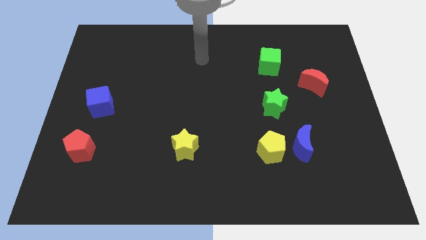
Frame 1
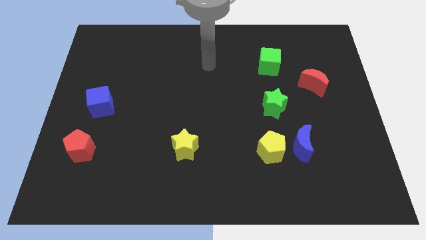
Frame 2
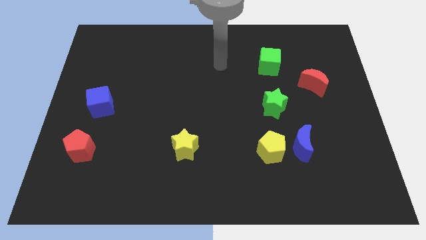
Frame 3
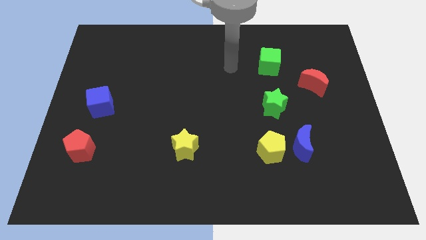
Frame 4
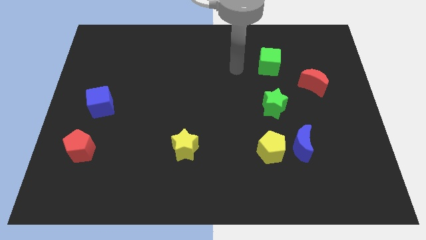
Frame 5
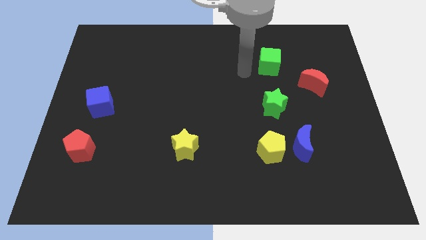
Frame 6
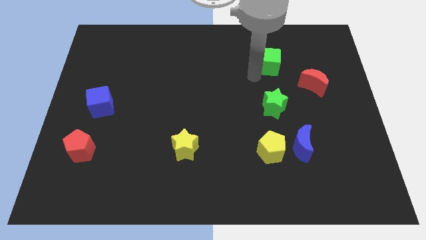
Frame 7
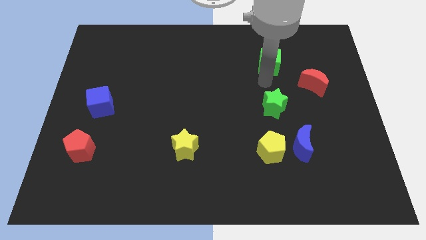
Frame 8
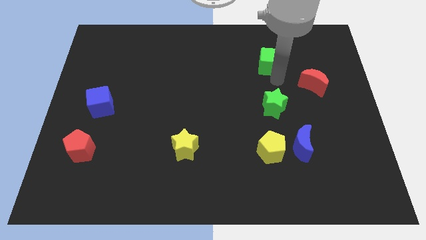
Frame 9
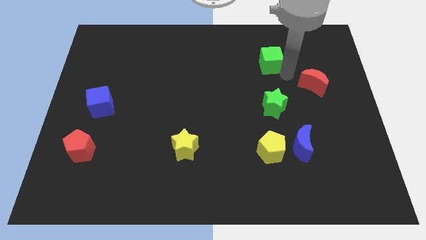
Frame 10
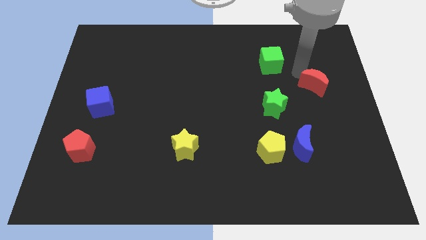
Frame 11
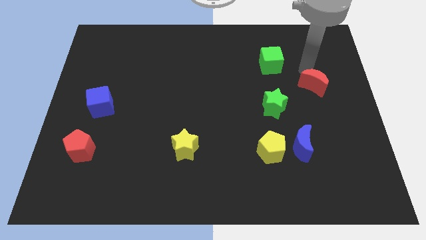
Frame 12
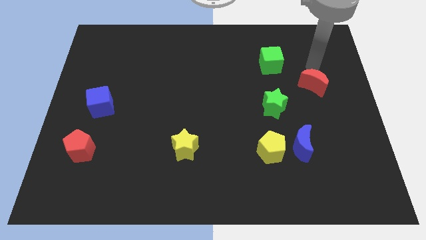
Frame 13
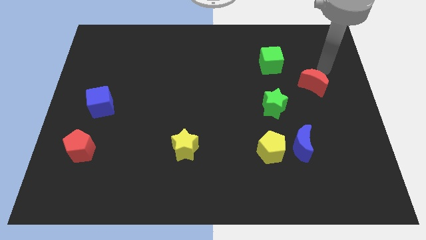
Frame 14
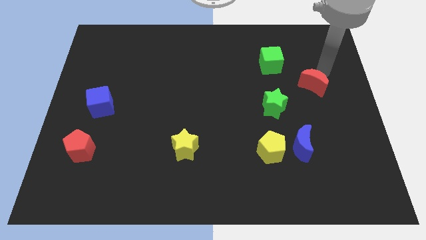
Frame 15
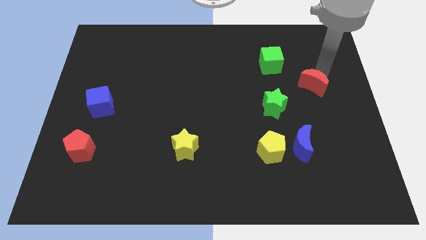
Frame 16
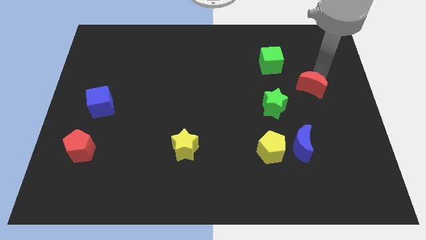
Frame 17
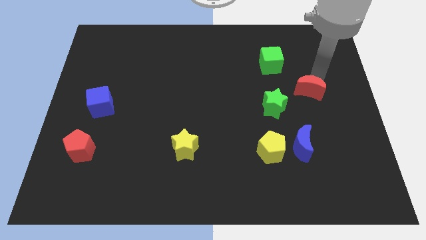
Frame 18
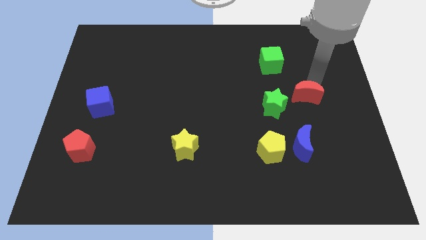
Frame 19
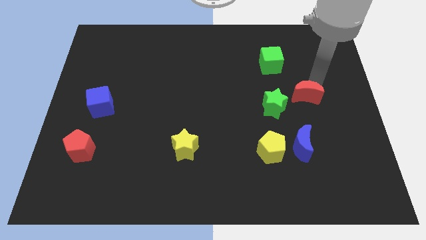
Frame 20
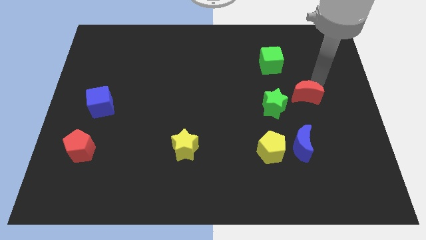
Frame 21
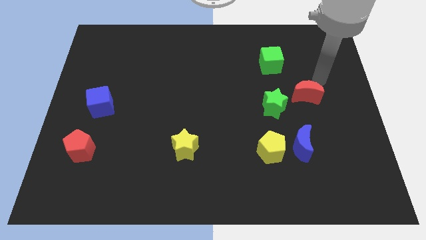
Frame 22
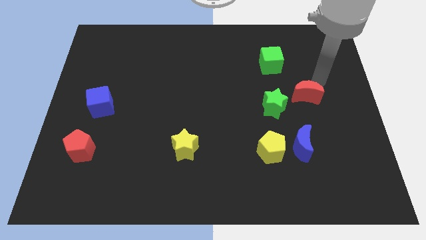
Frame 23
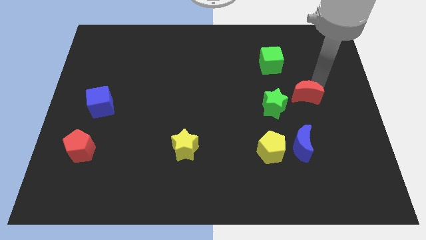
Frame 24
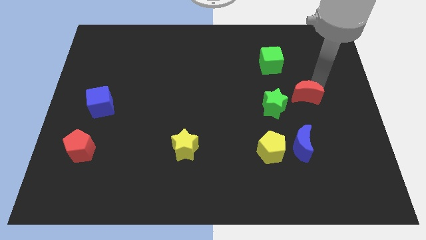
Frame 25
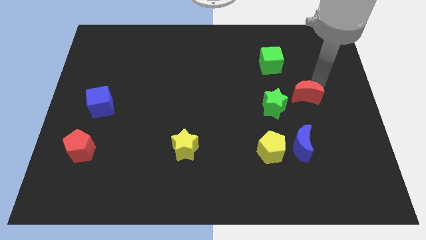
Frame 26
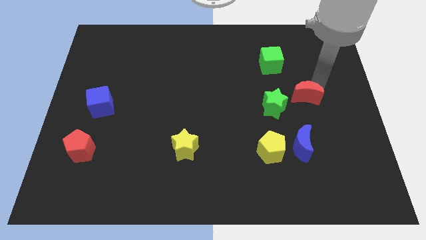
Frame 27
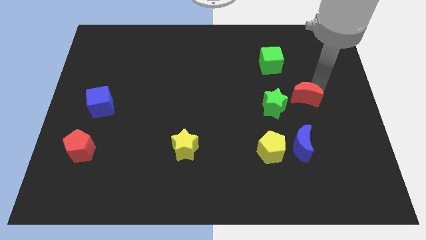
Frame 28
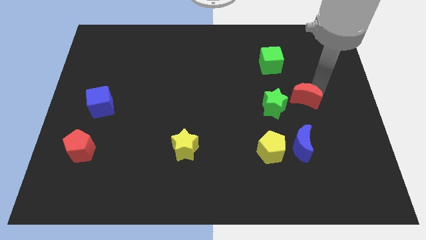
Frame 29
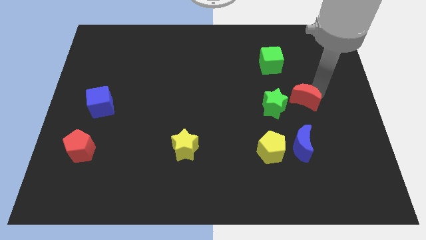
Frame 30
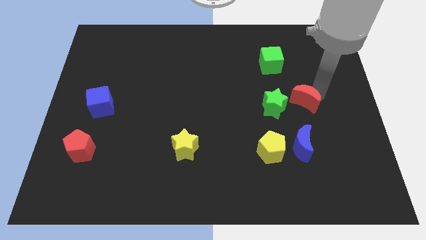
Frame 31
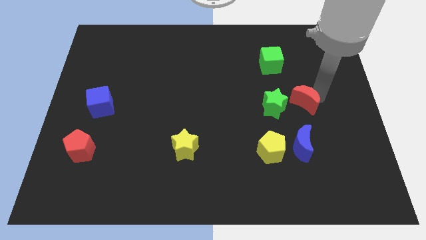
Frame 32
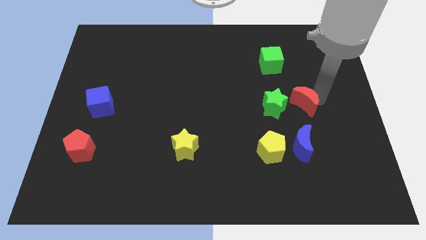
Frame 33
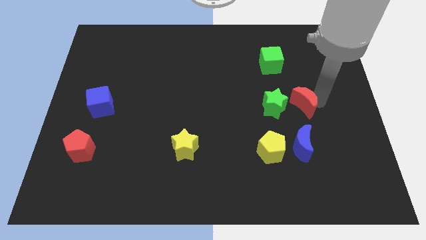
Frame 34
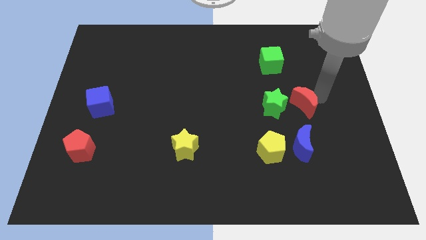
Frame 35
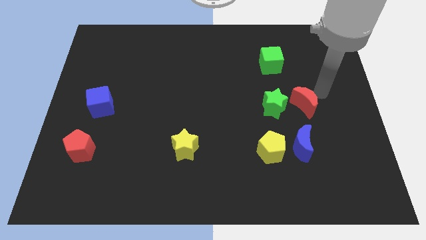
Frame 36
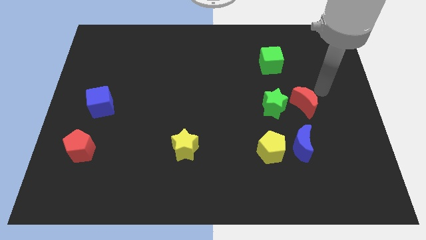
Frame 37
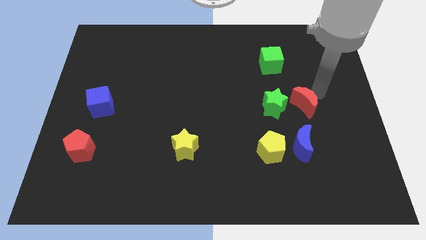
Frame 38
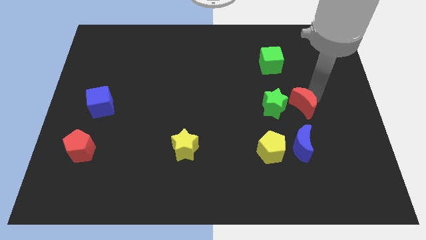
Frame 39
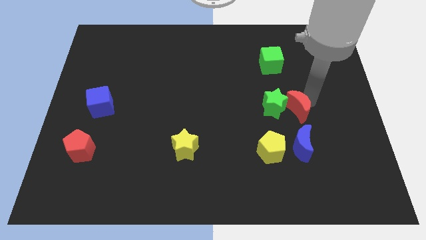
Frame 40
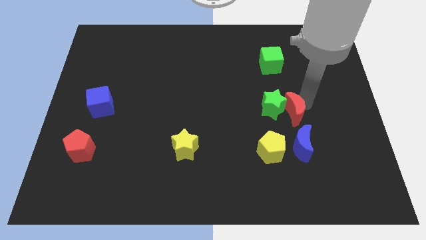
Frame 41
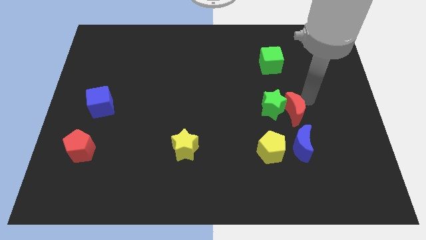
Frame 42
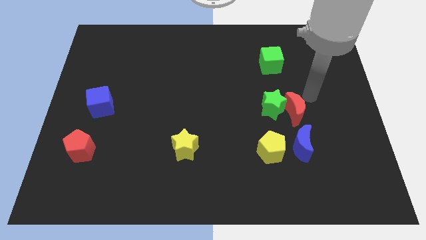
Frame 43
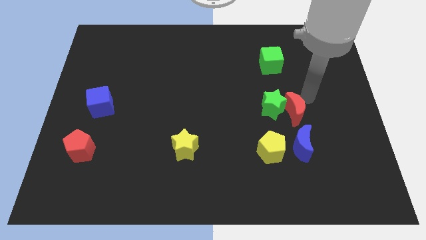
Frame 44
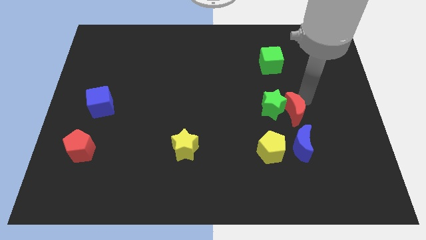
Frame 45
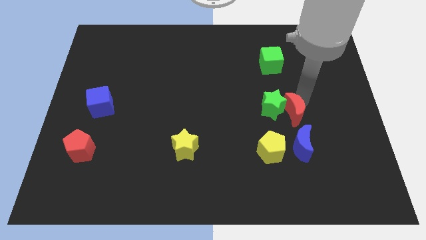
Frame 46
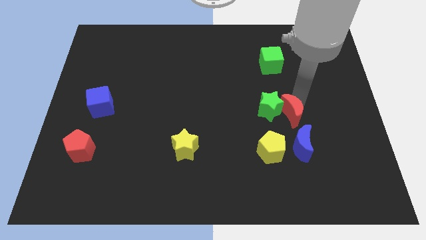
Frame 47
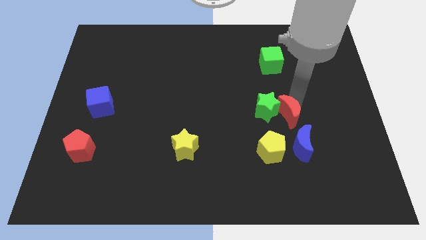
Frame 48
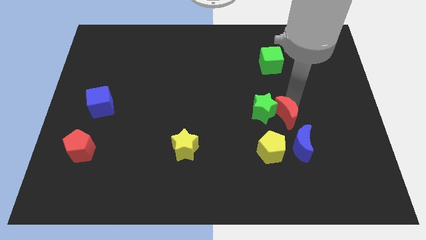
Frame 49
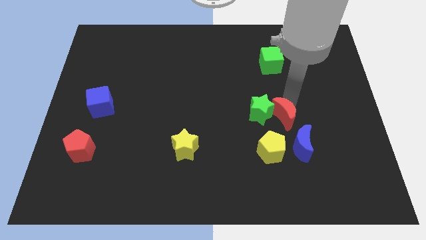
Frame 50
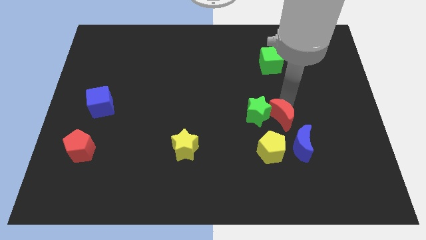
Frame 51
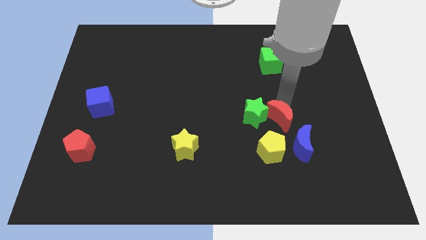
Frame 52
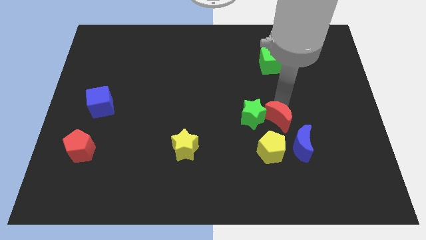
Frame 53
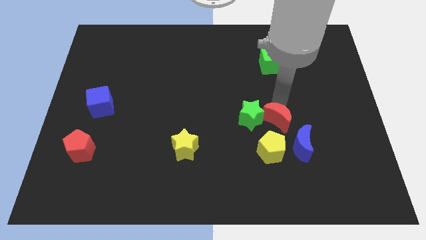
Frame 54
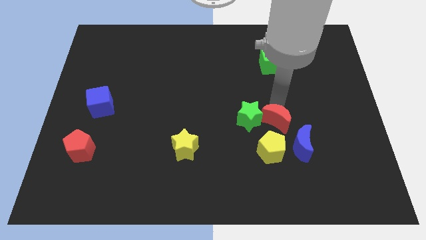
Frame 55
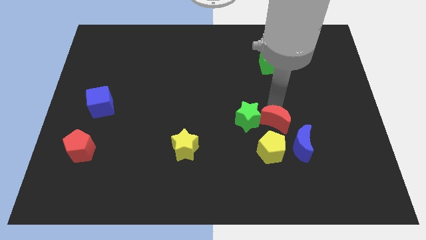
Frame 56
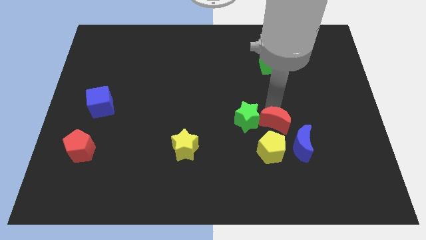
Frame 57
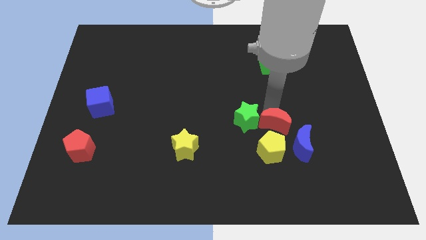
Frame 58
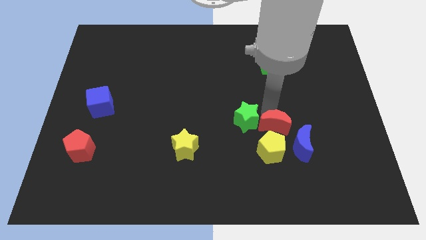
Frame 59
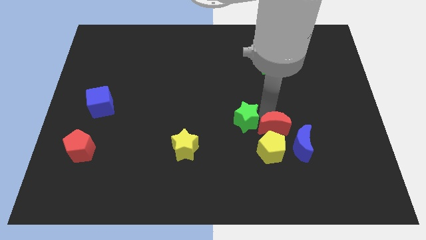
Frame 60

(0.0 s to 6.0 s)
move the red moon next to the yellow pentagon

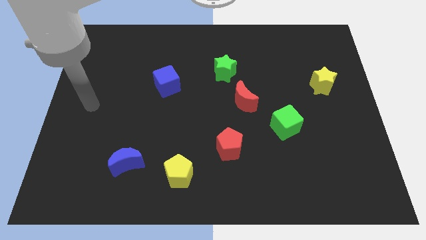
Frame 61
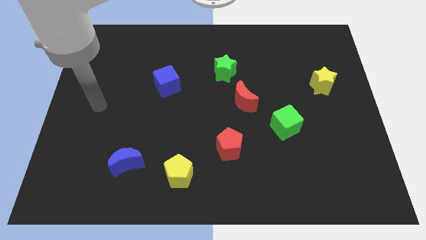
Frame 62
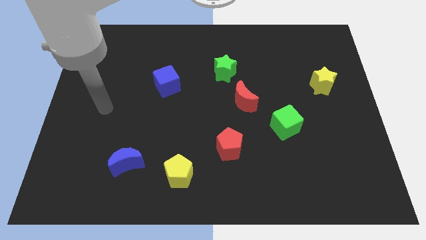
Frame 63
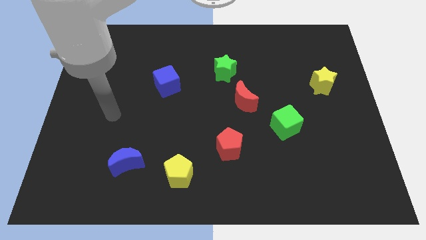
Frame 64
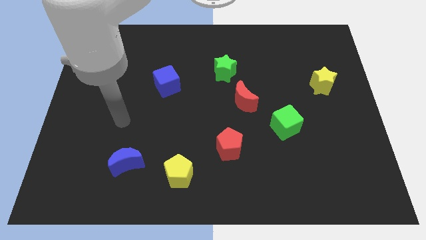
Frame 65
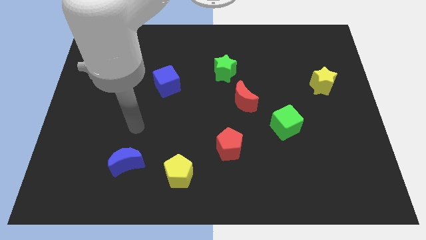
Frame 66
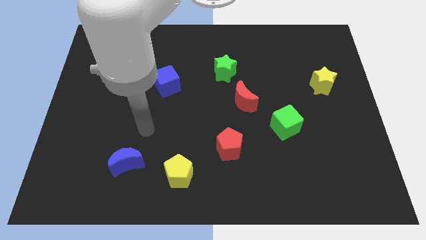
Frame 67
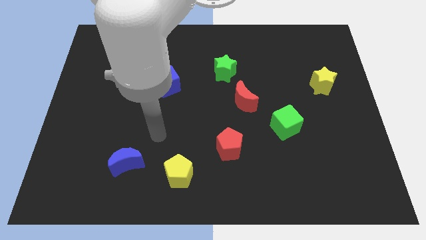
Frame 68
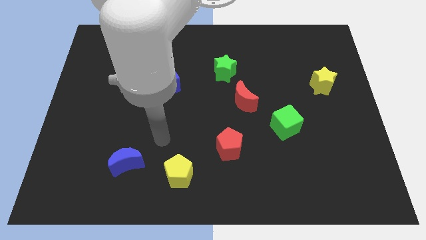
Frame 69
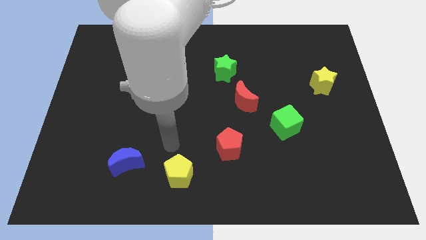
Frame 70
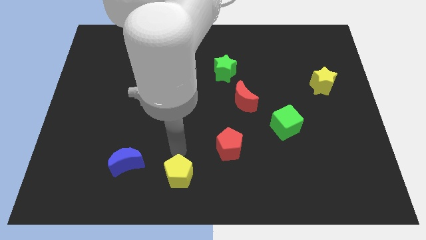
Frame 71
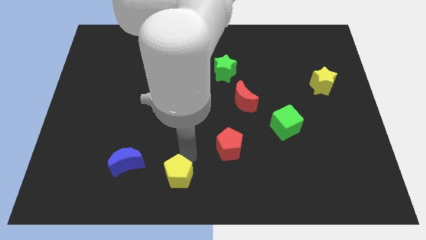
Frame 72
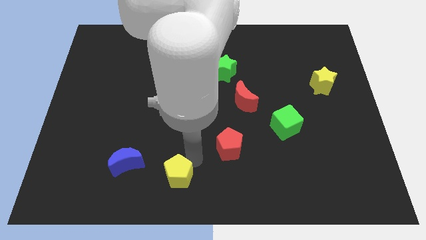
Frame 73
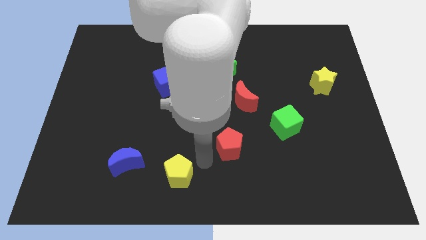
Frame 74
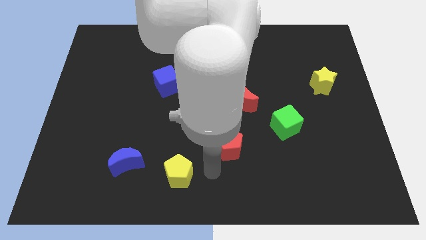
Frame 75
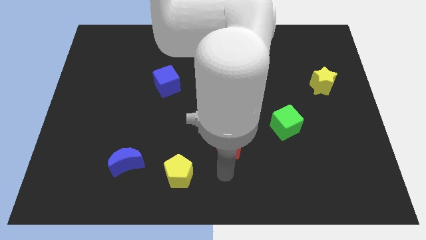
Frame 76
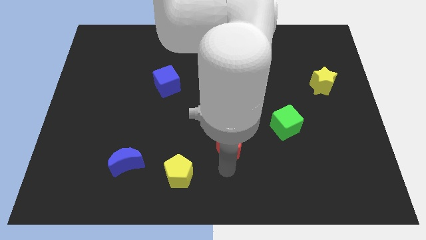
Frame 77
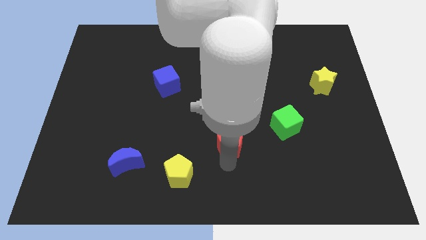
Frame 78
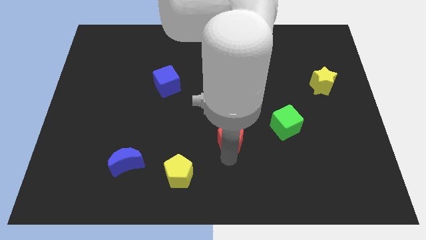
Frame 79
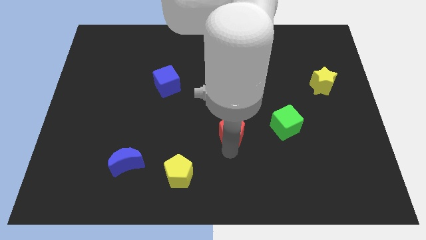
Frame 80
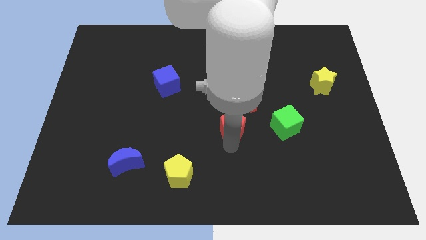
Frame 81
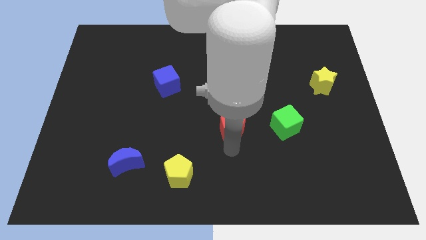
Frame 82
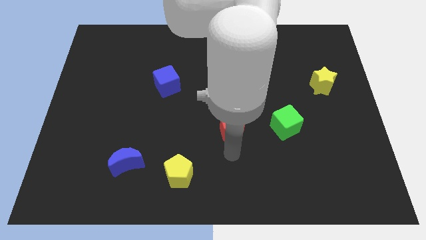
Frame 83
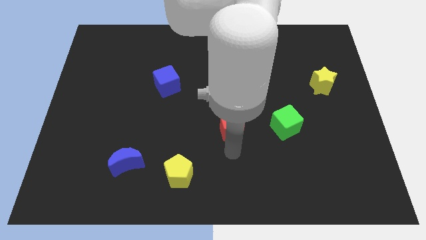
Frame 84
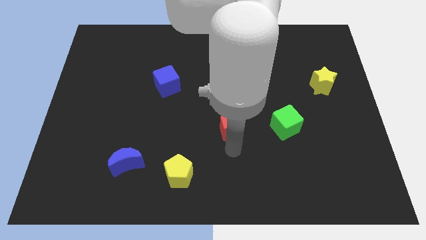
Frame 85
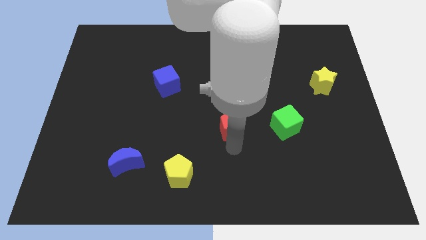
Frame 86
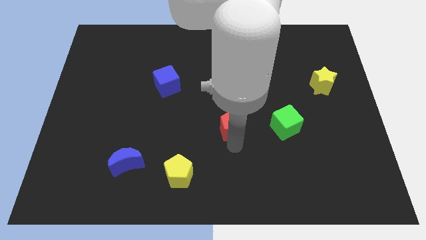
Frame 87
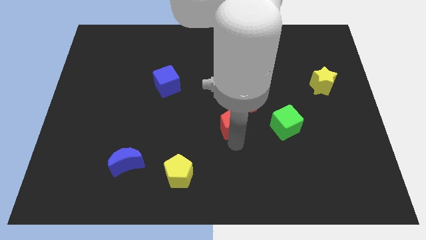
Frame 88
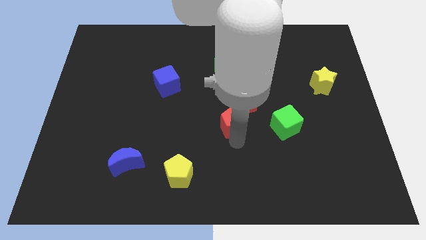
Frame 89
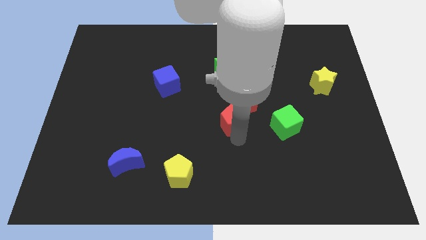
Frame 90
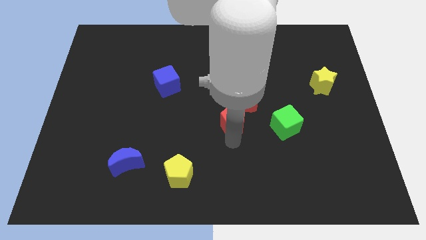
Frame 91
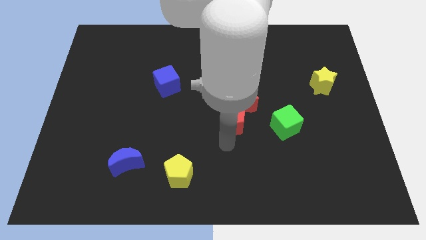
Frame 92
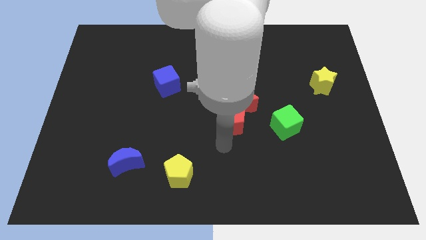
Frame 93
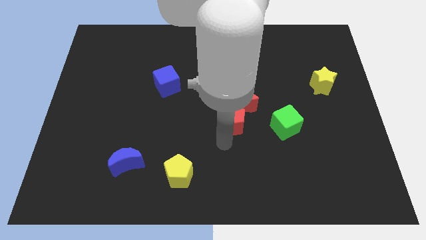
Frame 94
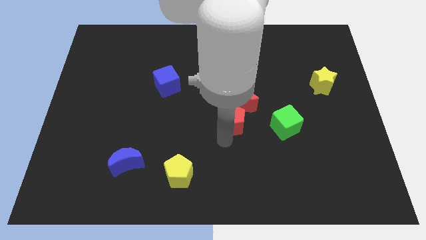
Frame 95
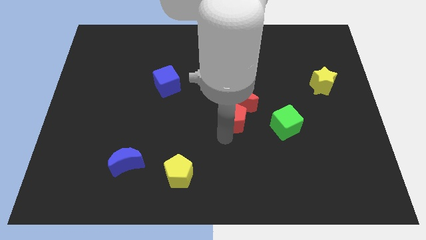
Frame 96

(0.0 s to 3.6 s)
move the red pentagon next to the red moon
